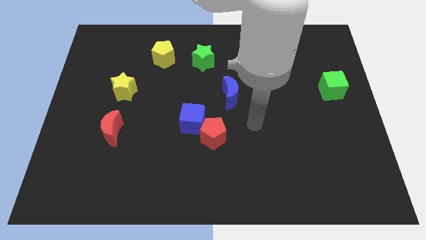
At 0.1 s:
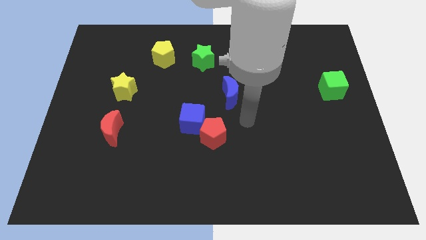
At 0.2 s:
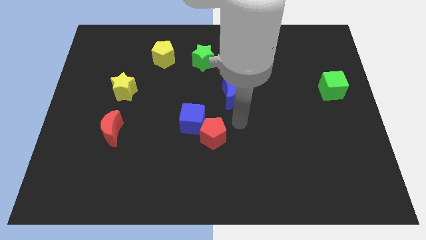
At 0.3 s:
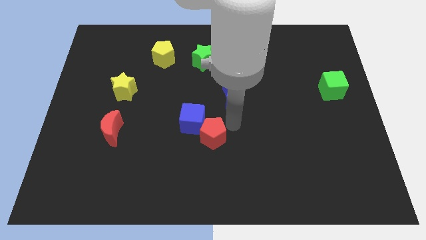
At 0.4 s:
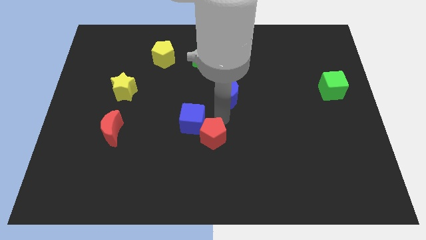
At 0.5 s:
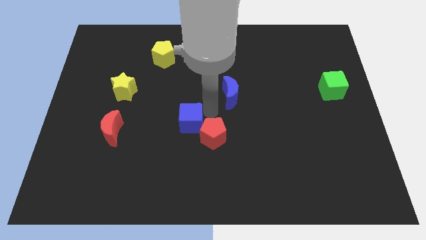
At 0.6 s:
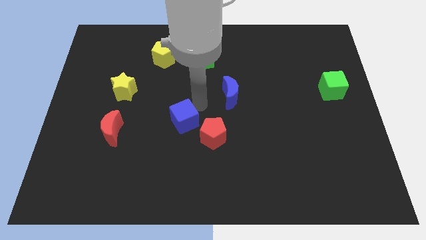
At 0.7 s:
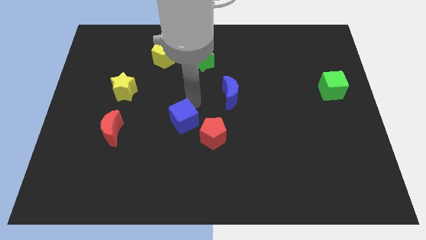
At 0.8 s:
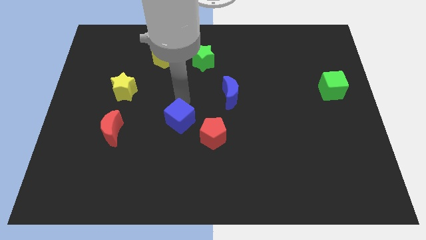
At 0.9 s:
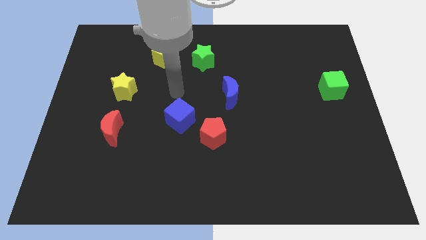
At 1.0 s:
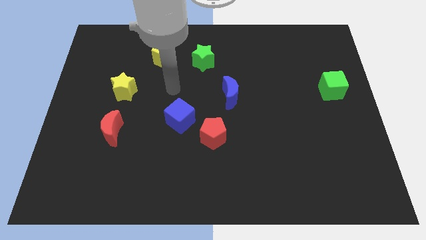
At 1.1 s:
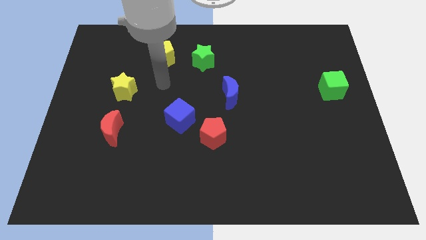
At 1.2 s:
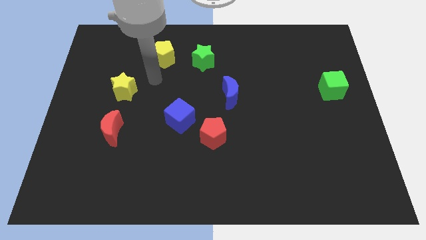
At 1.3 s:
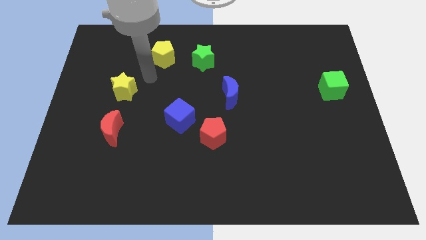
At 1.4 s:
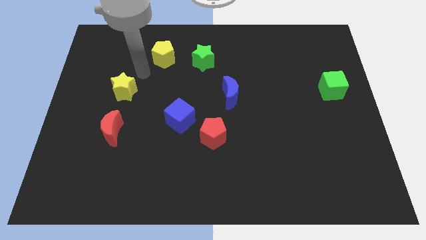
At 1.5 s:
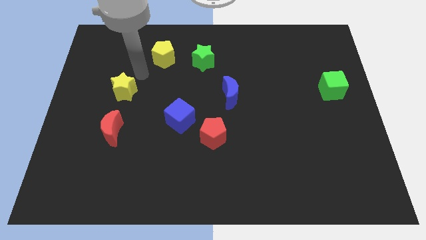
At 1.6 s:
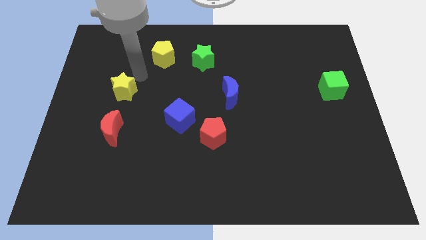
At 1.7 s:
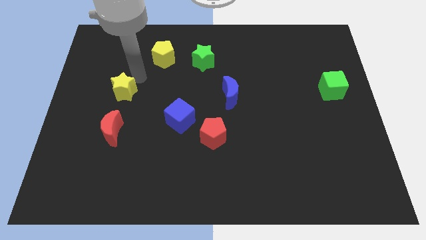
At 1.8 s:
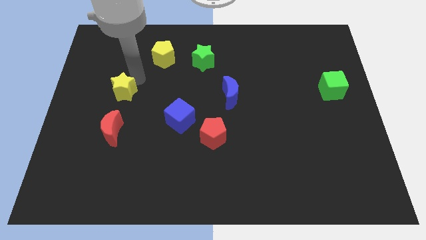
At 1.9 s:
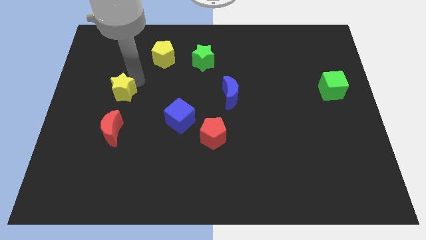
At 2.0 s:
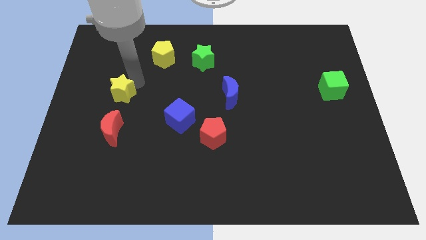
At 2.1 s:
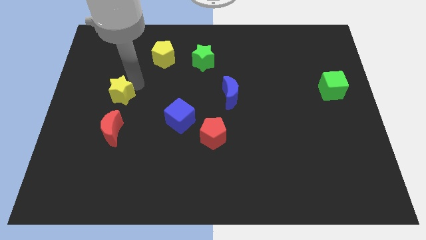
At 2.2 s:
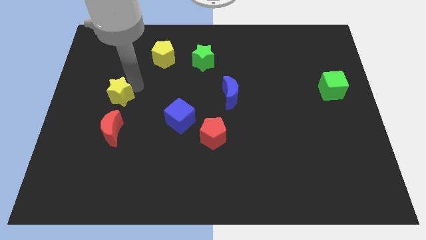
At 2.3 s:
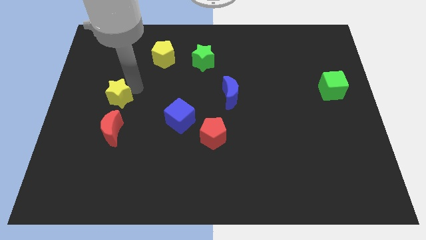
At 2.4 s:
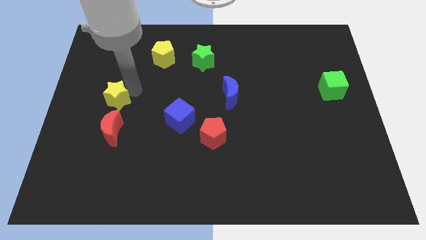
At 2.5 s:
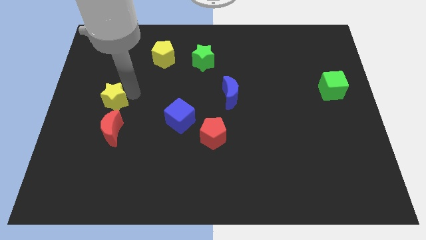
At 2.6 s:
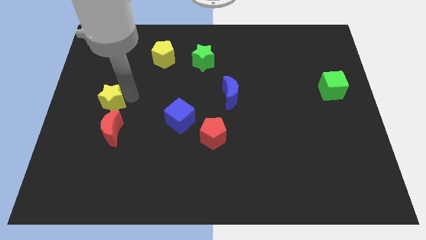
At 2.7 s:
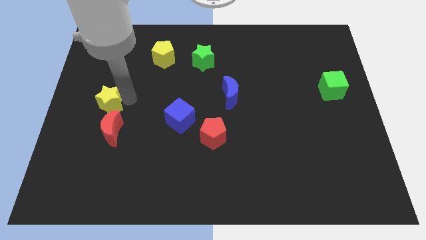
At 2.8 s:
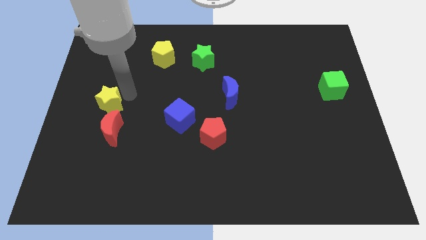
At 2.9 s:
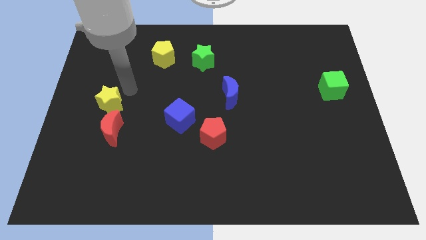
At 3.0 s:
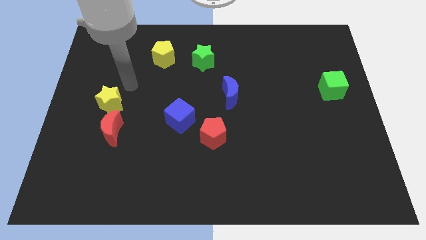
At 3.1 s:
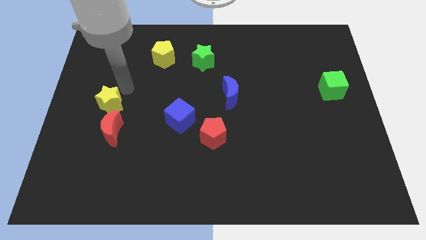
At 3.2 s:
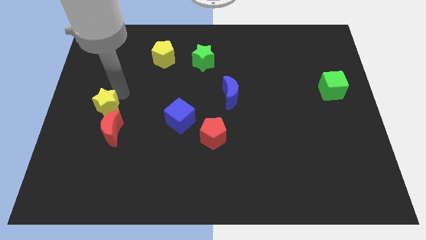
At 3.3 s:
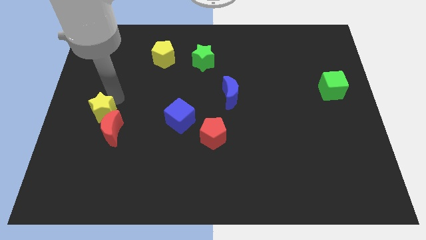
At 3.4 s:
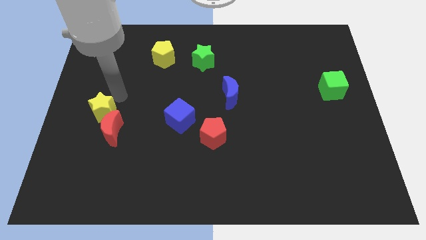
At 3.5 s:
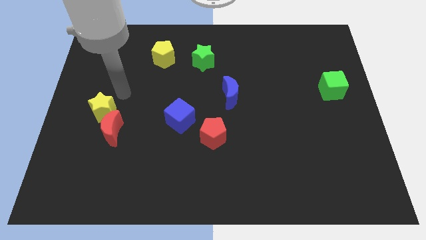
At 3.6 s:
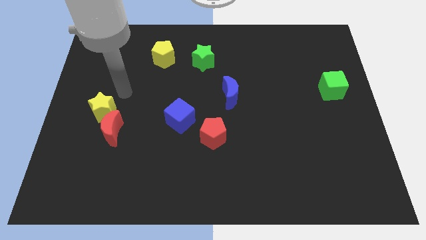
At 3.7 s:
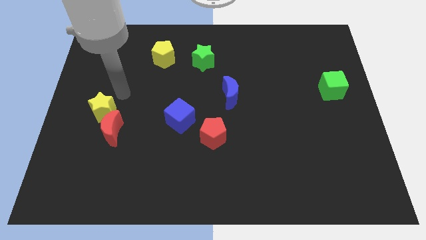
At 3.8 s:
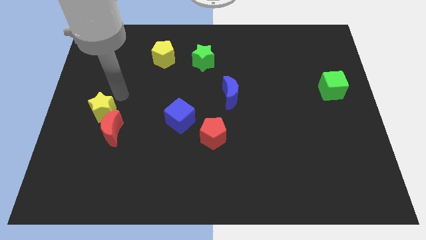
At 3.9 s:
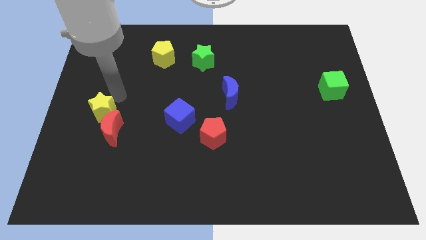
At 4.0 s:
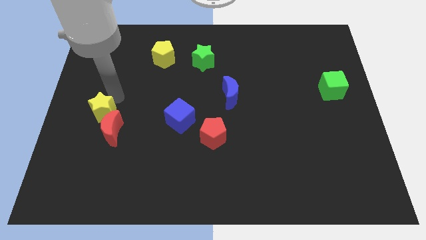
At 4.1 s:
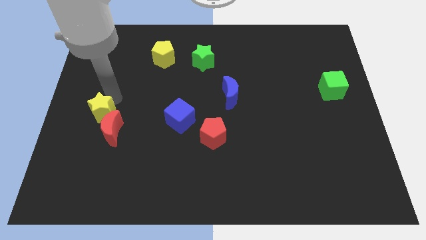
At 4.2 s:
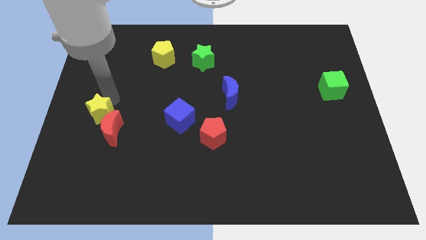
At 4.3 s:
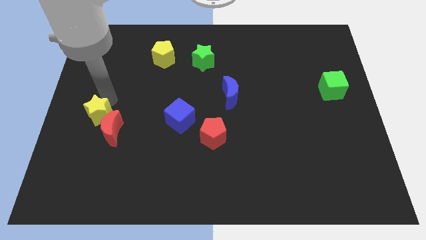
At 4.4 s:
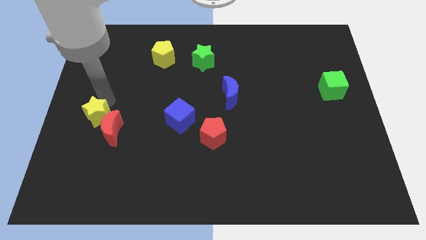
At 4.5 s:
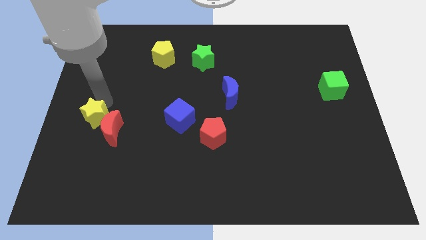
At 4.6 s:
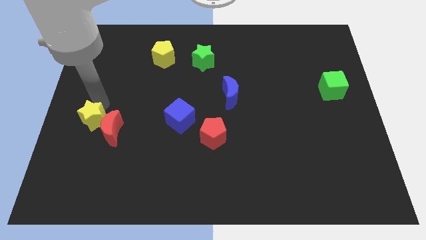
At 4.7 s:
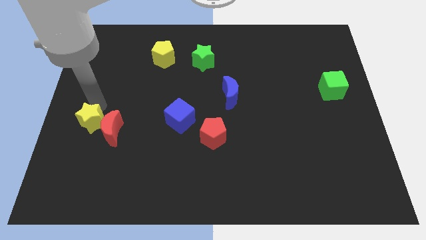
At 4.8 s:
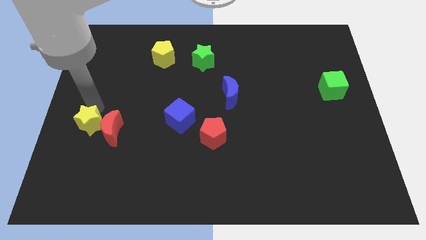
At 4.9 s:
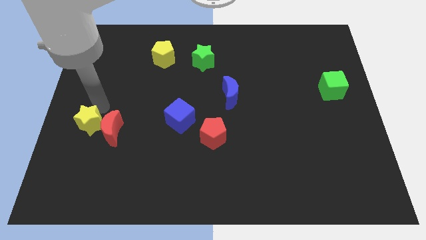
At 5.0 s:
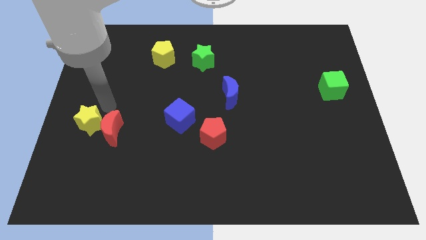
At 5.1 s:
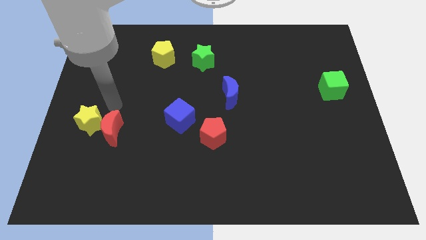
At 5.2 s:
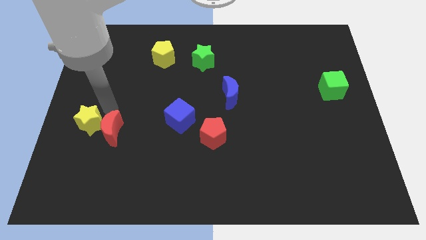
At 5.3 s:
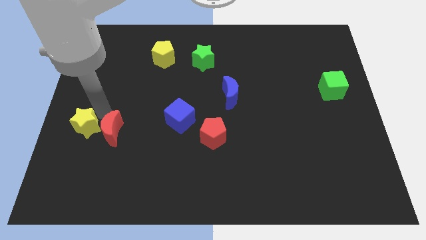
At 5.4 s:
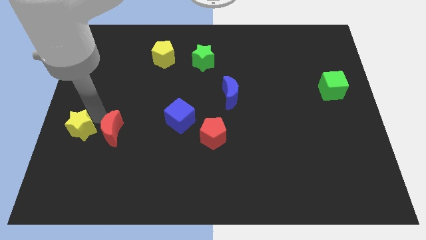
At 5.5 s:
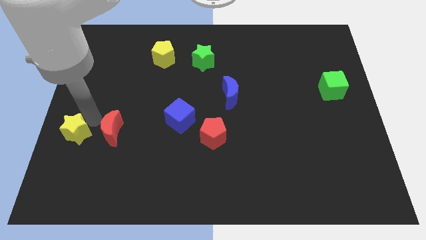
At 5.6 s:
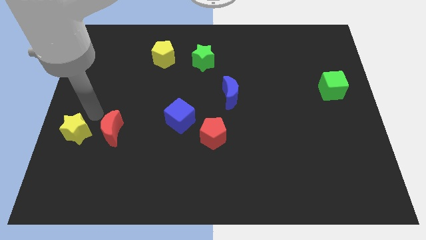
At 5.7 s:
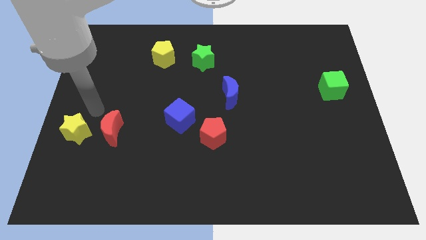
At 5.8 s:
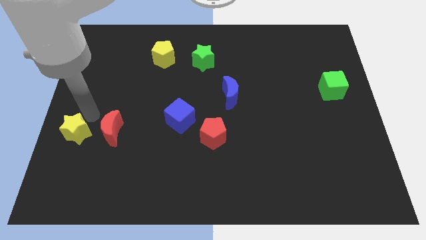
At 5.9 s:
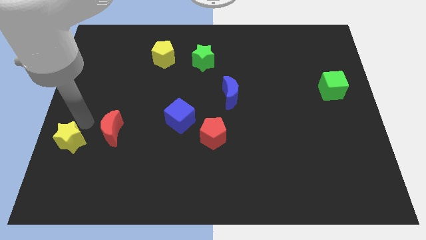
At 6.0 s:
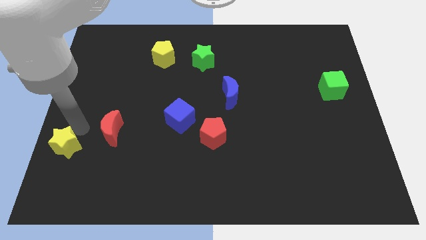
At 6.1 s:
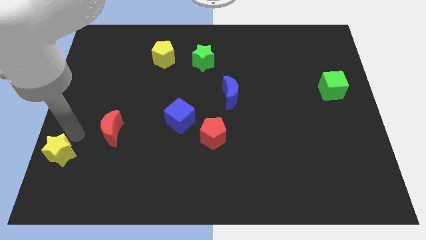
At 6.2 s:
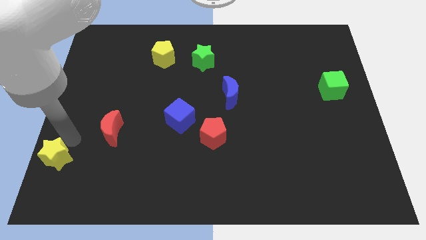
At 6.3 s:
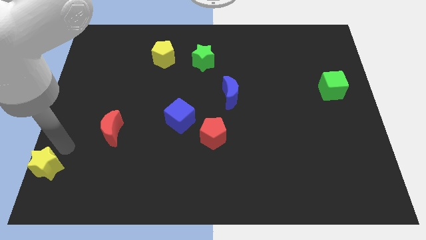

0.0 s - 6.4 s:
move the yellow star to the lower left corner

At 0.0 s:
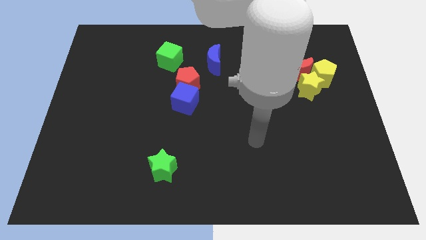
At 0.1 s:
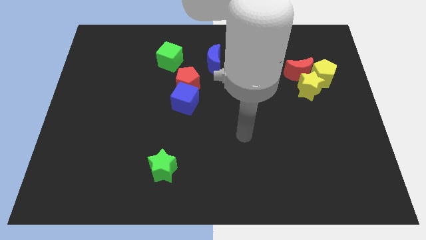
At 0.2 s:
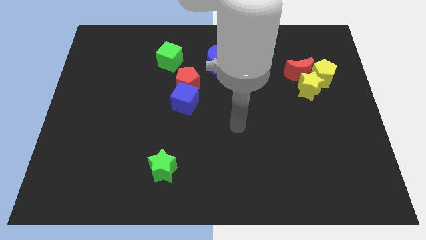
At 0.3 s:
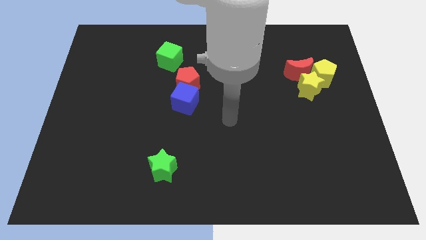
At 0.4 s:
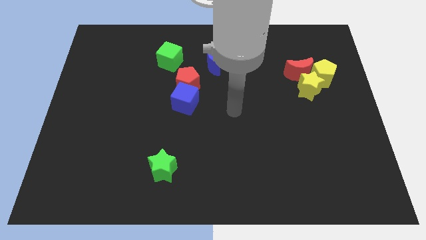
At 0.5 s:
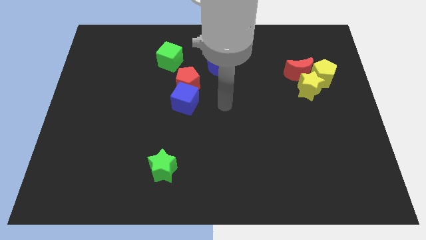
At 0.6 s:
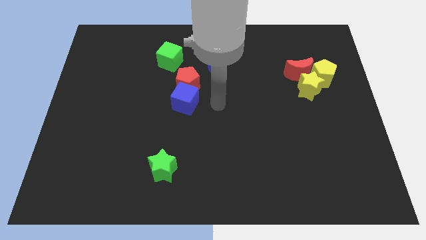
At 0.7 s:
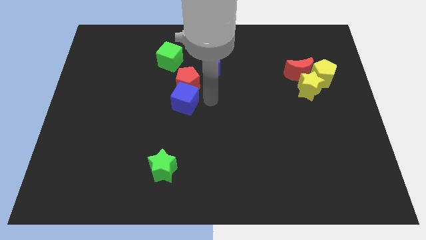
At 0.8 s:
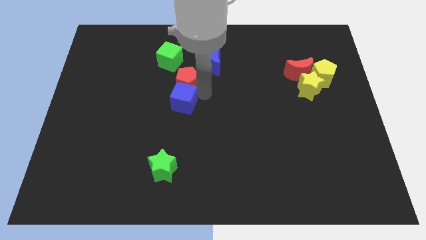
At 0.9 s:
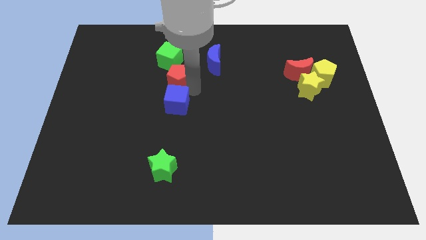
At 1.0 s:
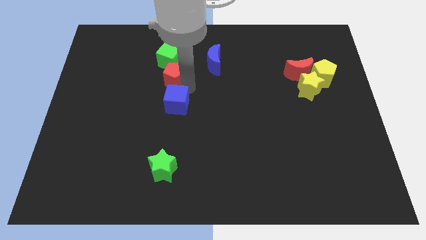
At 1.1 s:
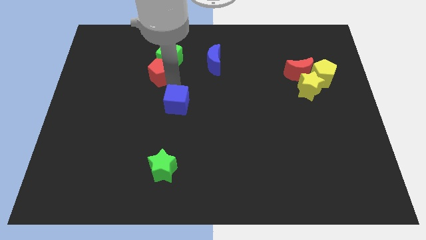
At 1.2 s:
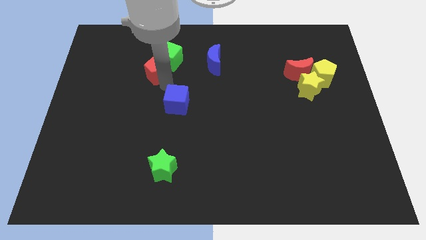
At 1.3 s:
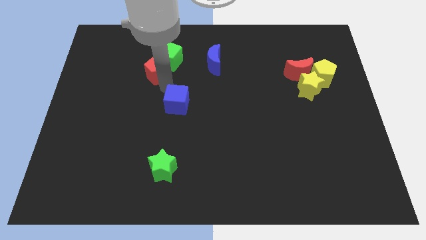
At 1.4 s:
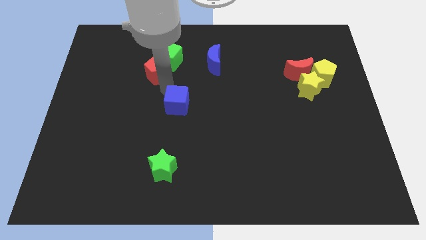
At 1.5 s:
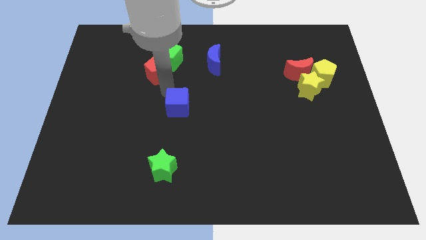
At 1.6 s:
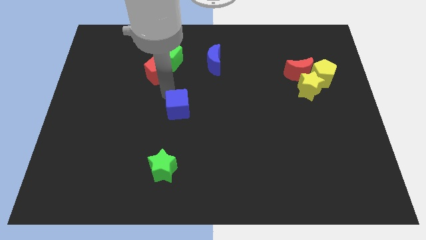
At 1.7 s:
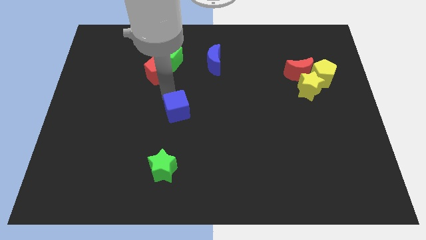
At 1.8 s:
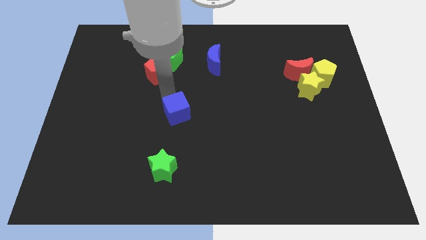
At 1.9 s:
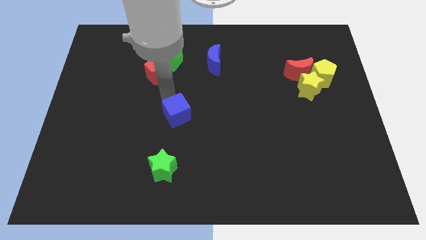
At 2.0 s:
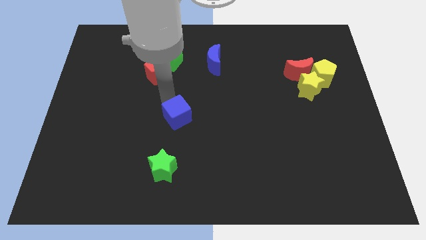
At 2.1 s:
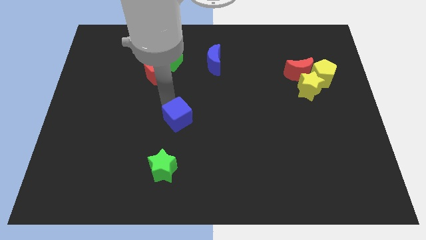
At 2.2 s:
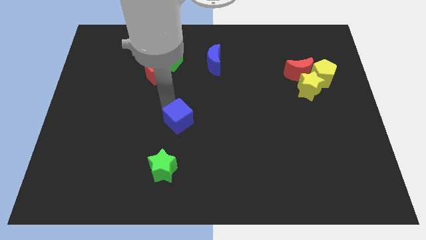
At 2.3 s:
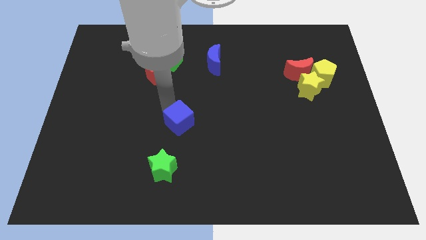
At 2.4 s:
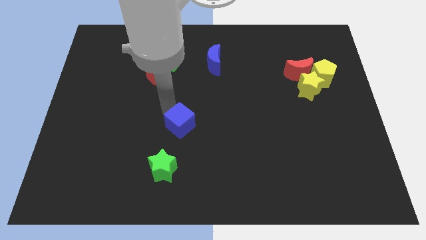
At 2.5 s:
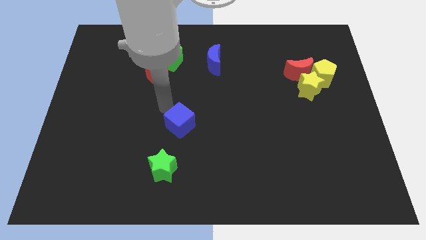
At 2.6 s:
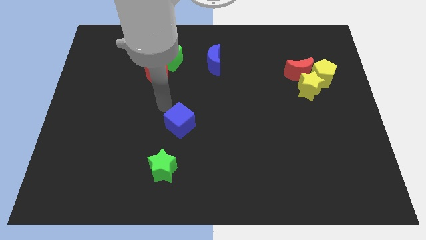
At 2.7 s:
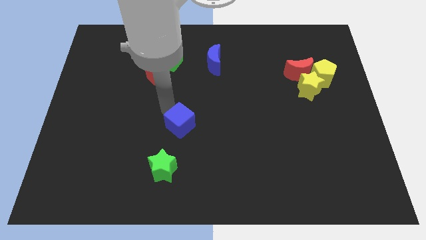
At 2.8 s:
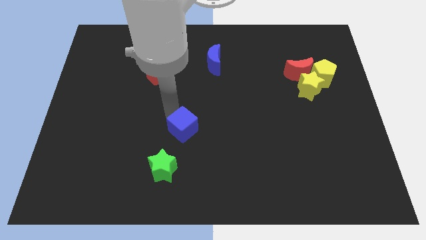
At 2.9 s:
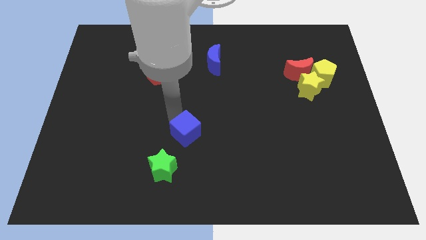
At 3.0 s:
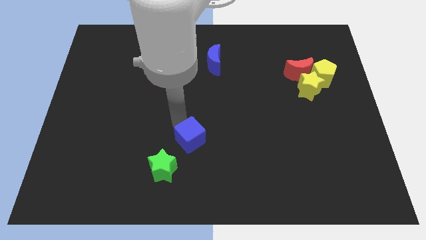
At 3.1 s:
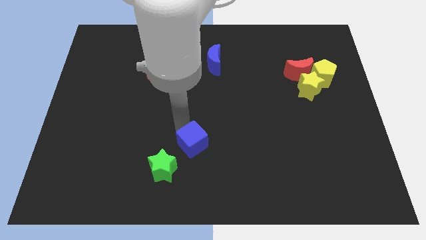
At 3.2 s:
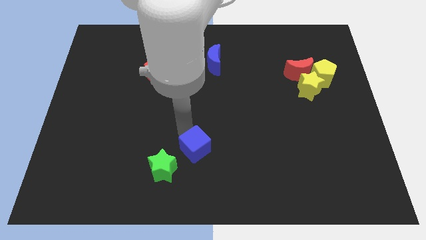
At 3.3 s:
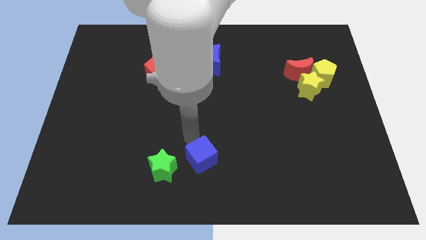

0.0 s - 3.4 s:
slide the blue cube to the bottom side
